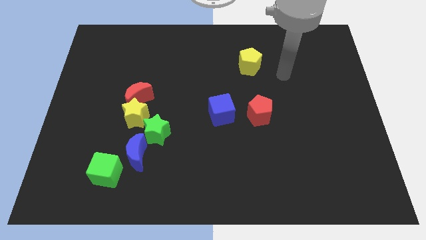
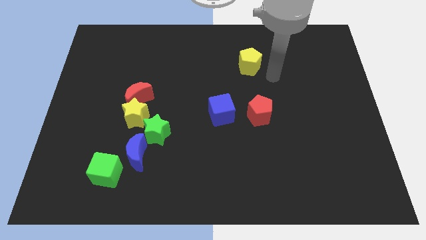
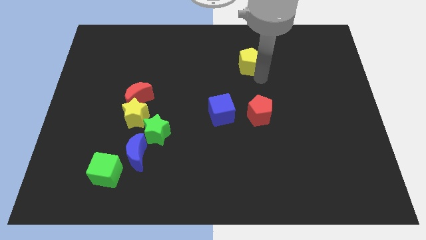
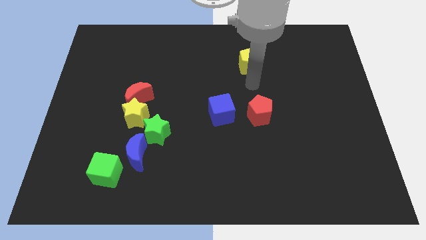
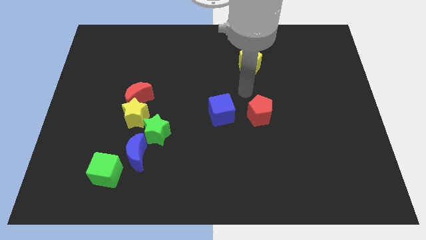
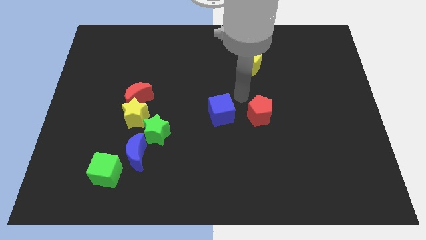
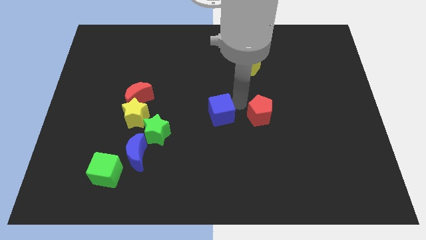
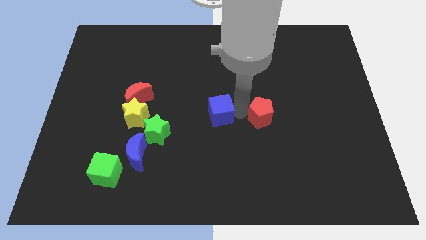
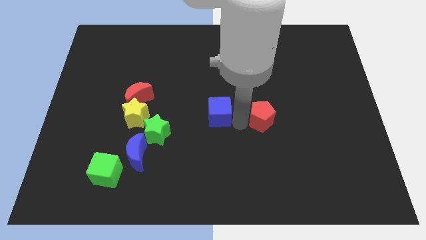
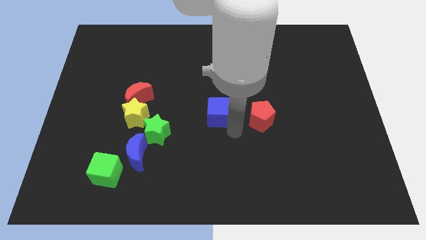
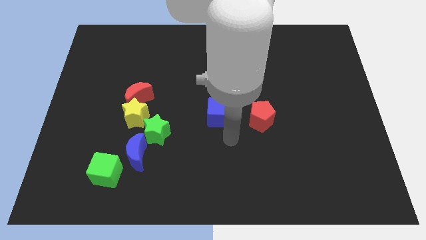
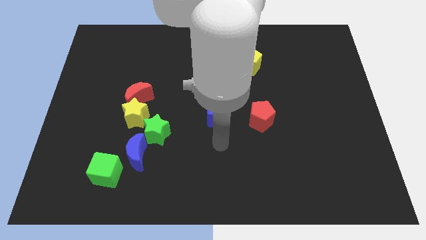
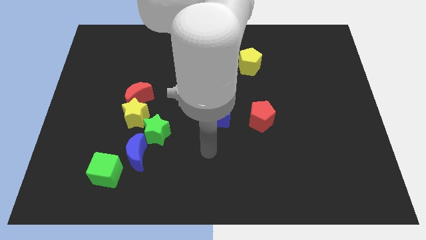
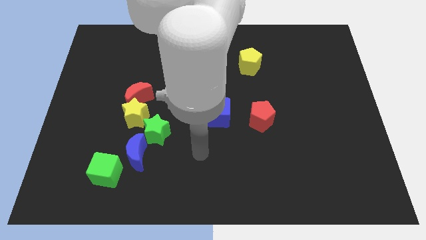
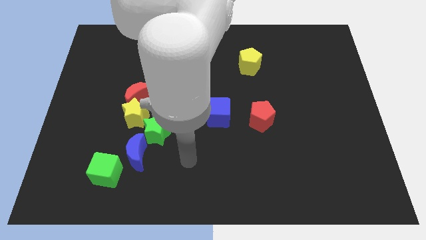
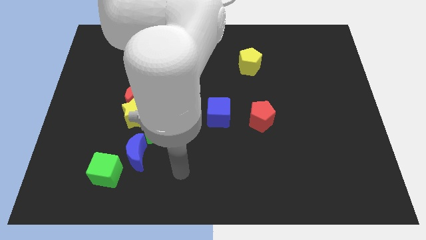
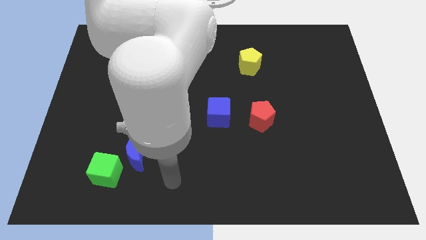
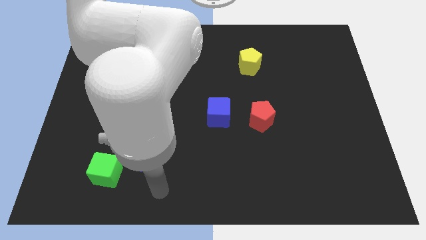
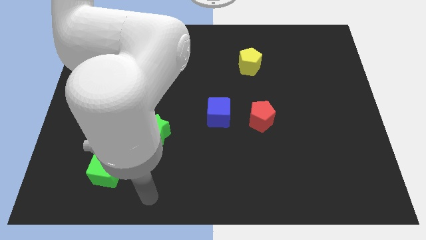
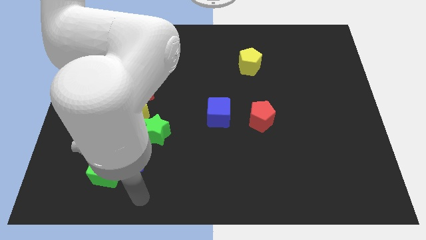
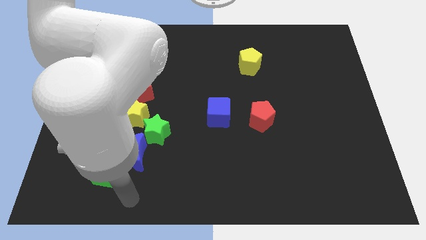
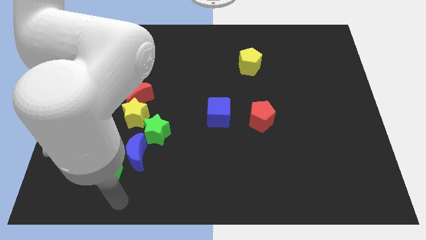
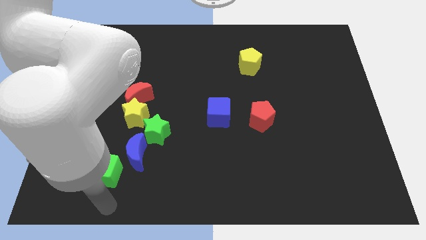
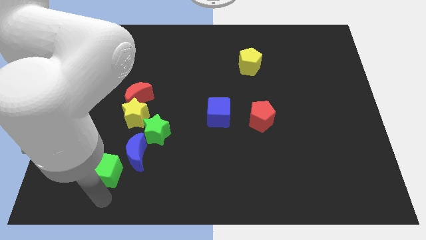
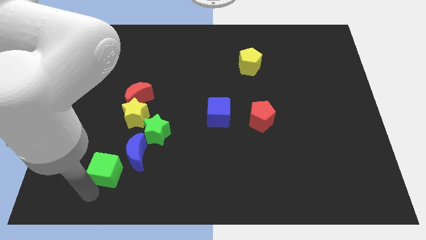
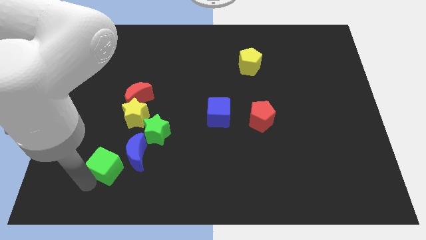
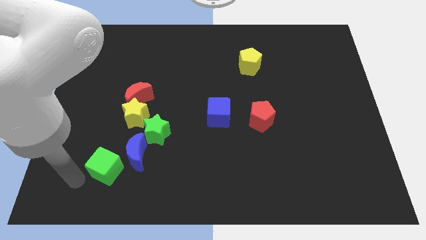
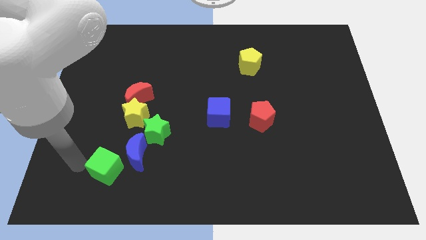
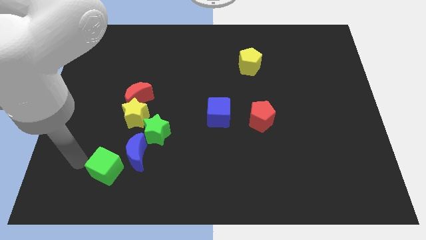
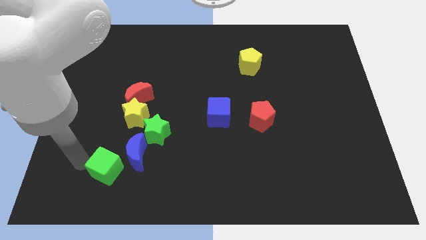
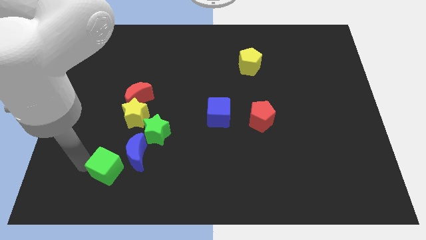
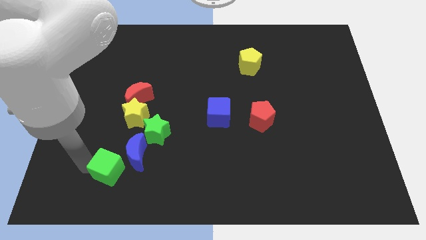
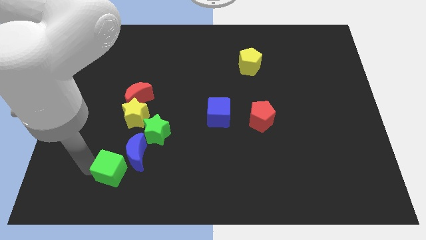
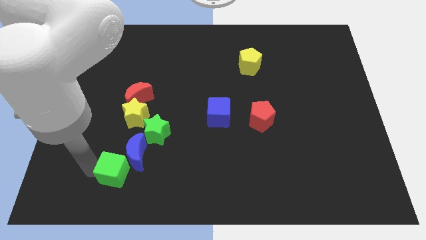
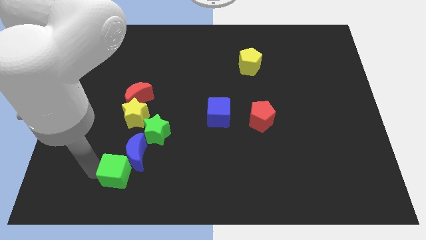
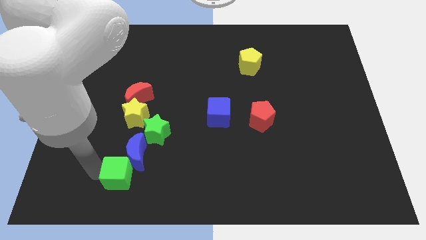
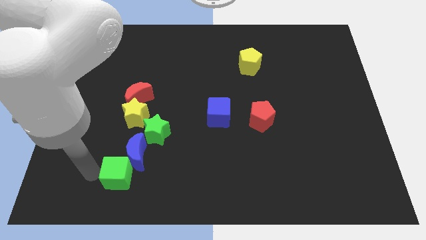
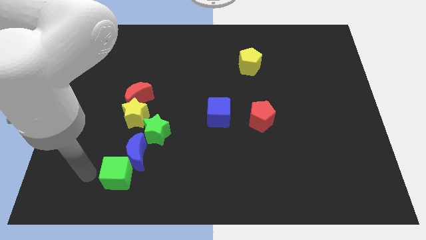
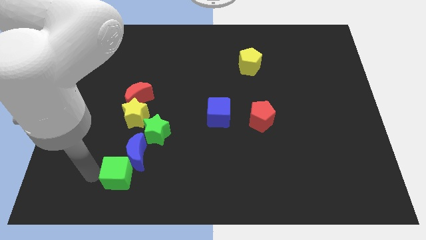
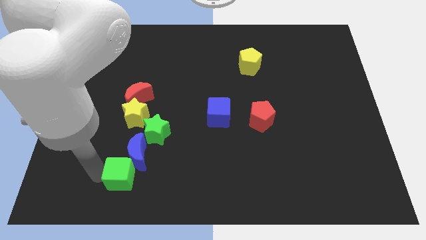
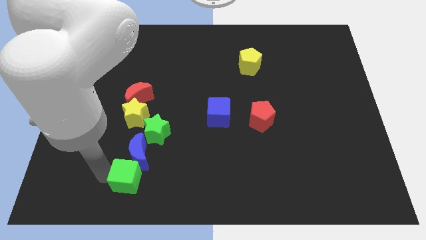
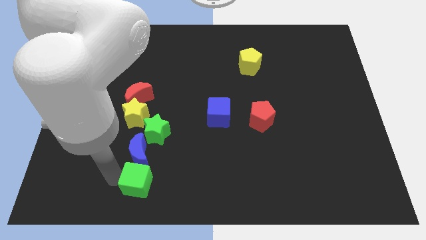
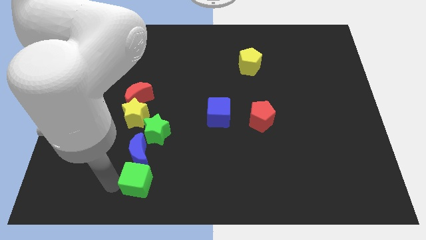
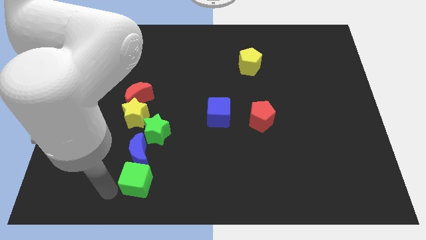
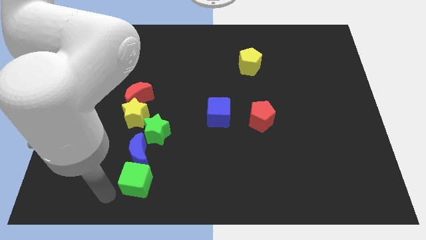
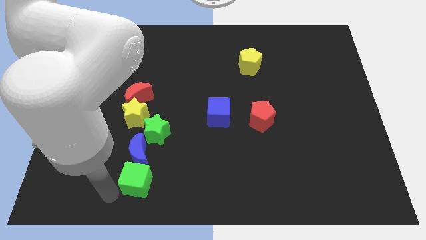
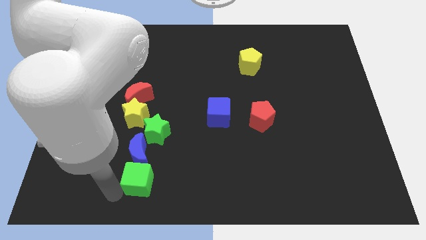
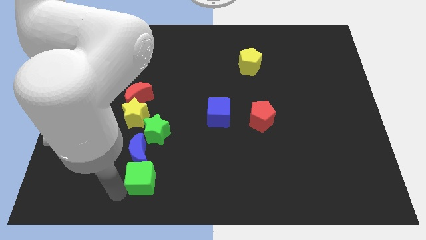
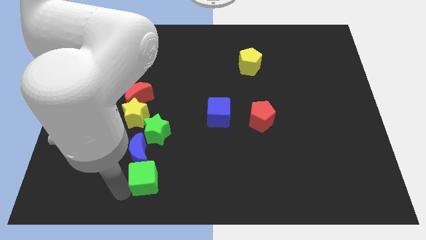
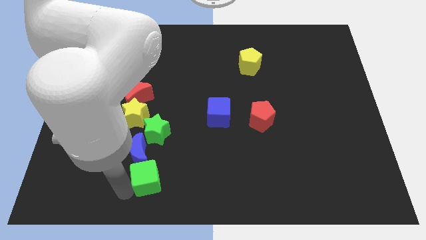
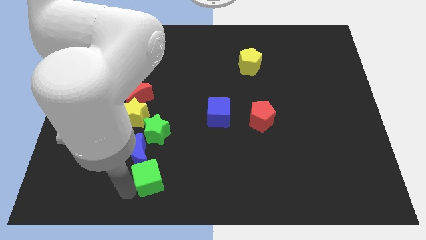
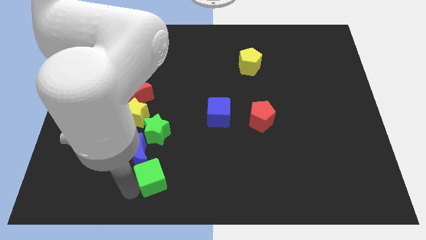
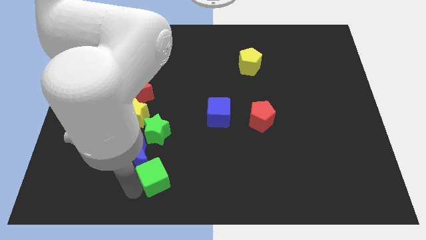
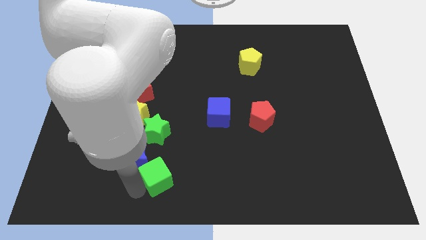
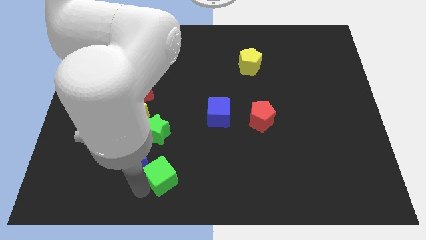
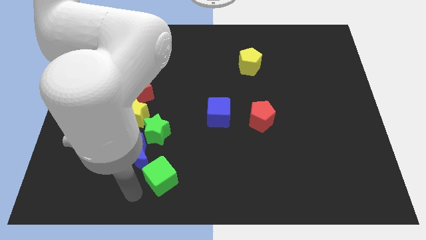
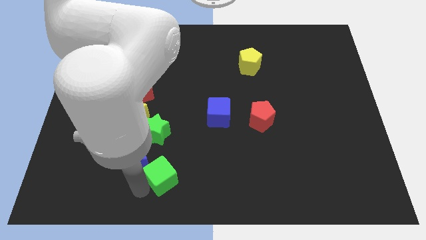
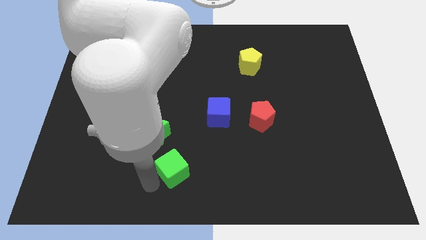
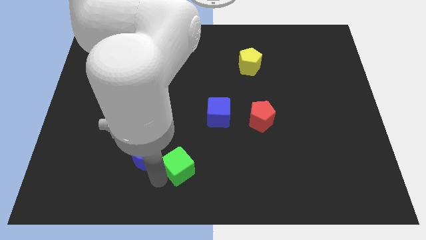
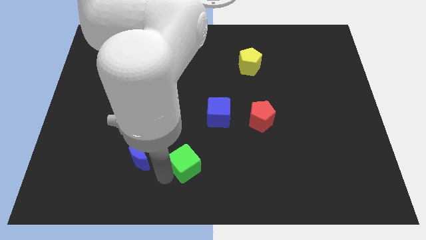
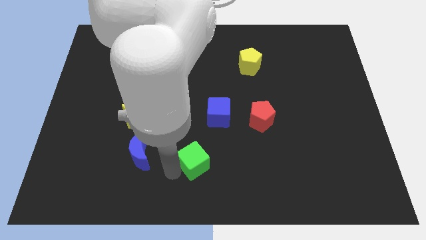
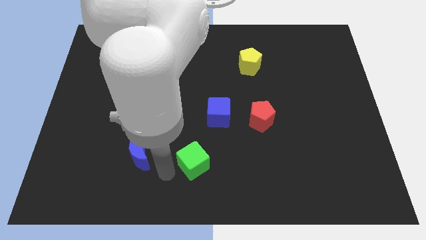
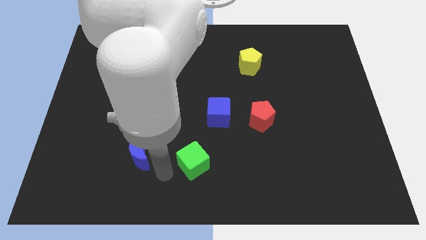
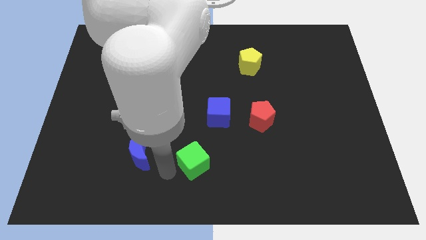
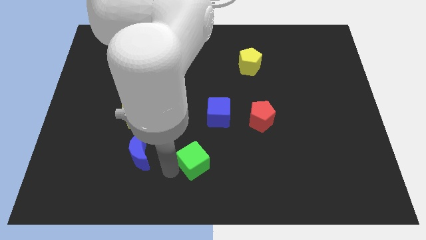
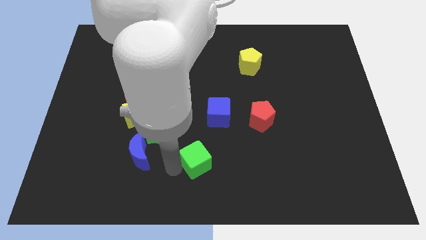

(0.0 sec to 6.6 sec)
move the green cube to the bottom of the blue cube
